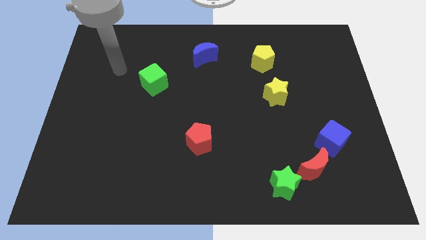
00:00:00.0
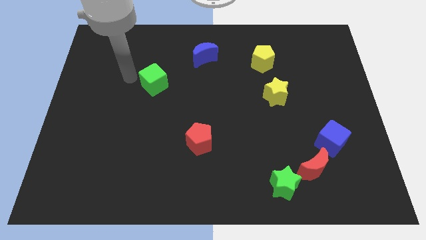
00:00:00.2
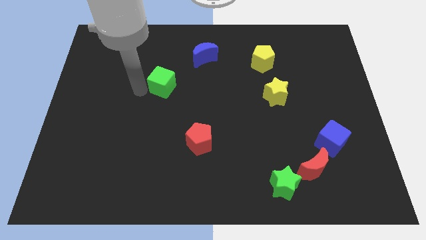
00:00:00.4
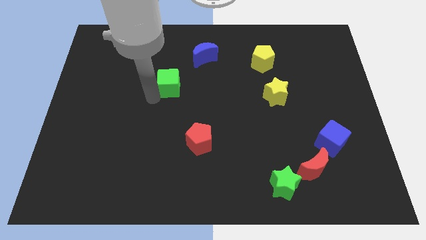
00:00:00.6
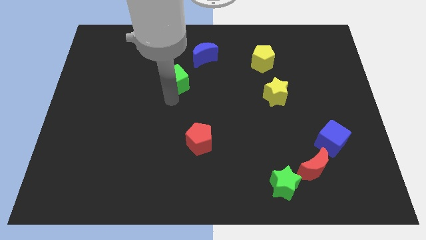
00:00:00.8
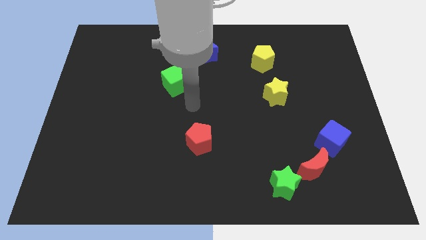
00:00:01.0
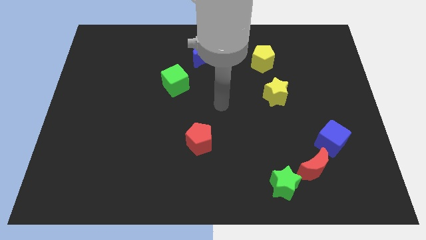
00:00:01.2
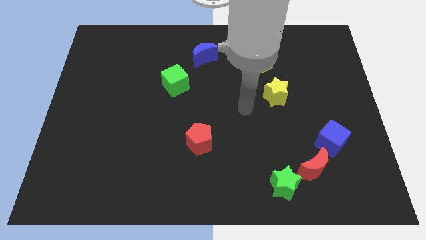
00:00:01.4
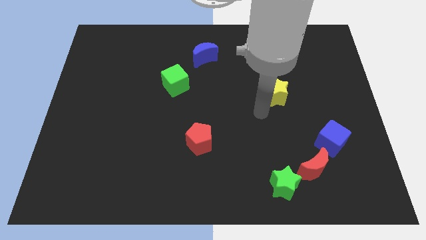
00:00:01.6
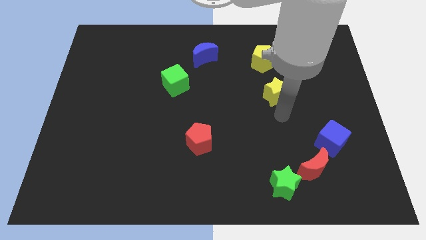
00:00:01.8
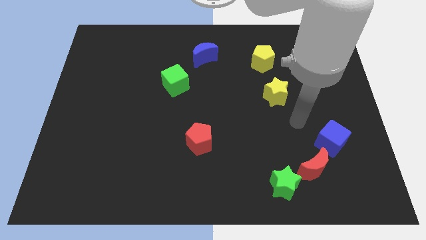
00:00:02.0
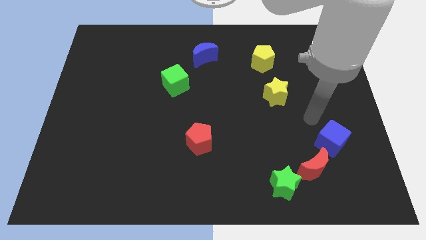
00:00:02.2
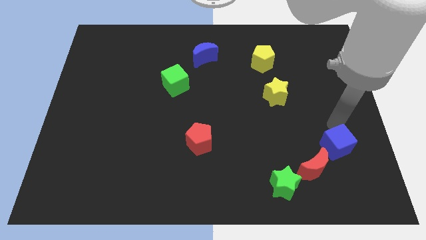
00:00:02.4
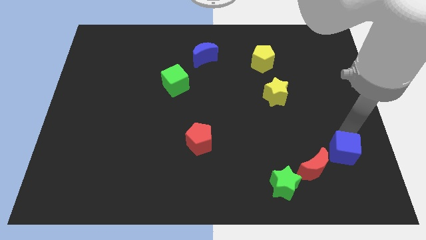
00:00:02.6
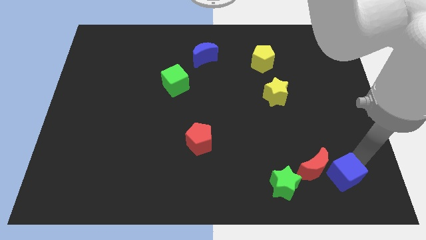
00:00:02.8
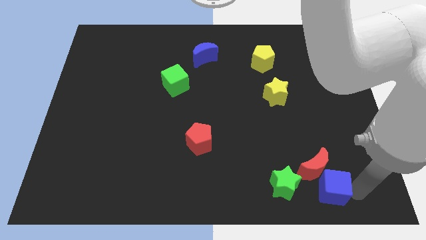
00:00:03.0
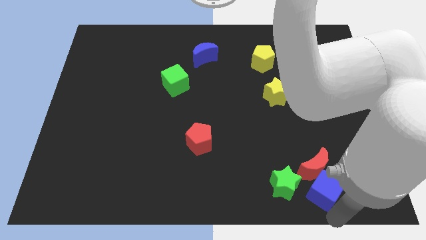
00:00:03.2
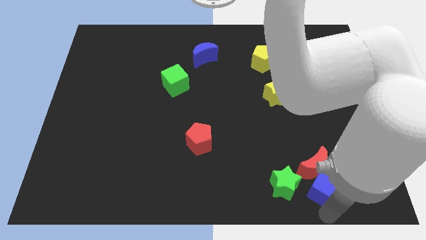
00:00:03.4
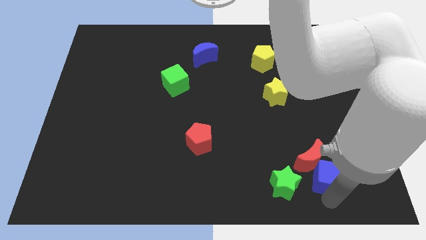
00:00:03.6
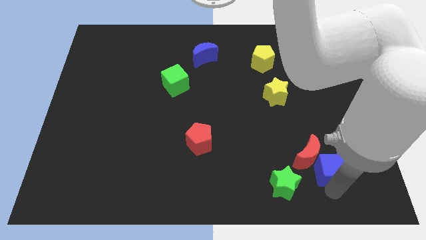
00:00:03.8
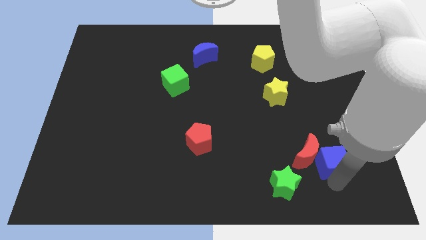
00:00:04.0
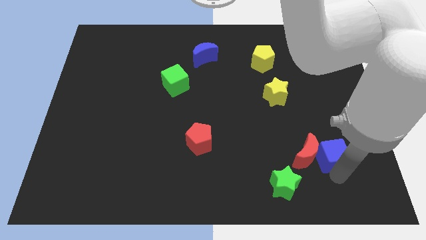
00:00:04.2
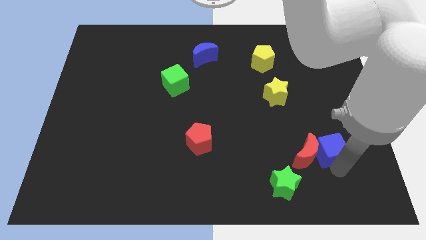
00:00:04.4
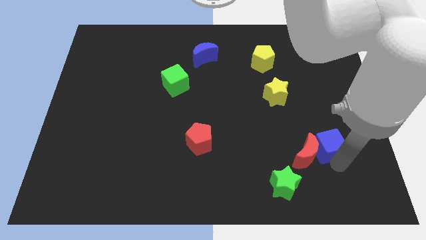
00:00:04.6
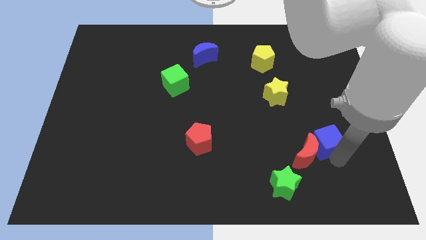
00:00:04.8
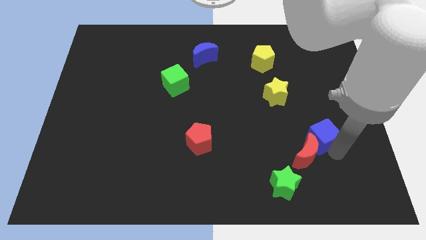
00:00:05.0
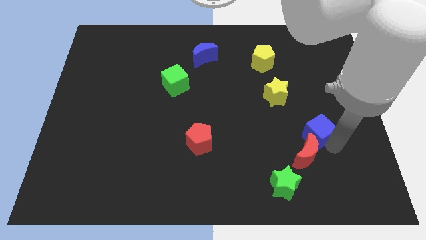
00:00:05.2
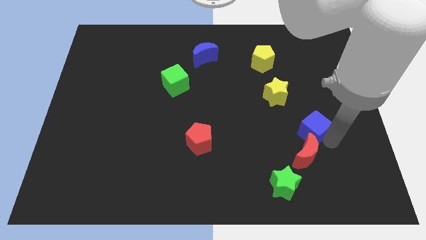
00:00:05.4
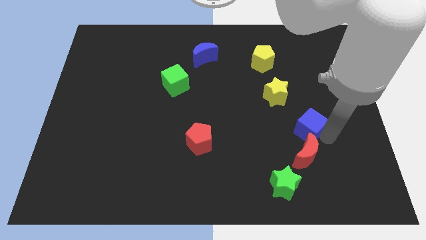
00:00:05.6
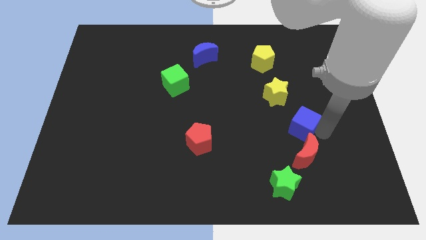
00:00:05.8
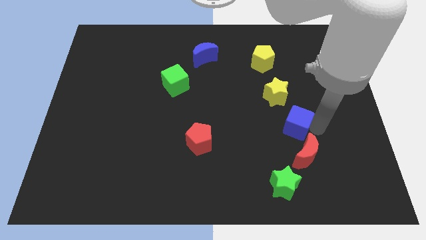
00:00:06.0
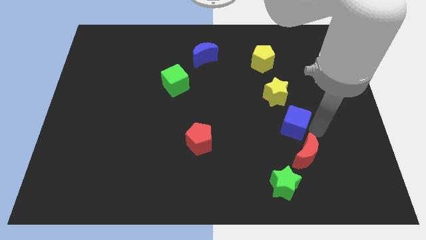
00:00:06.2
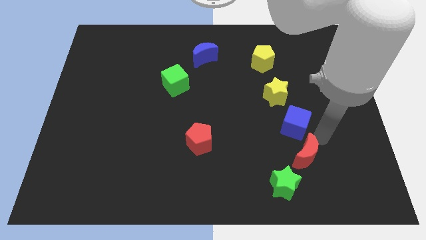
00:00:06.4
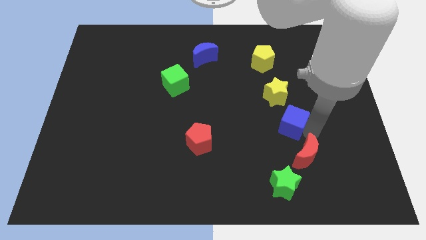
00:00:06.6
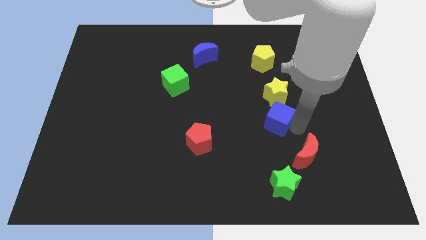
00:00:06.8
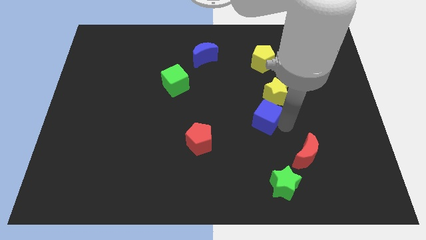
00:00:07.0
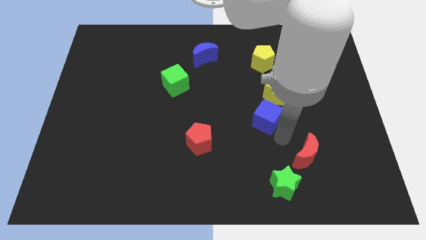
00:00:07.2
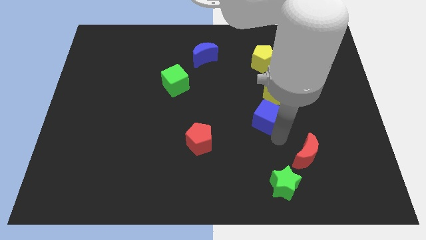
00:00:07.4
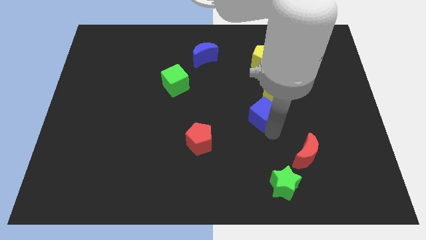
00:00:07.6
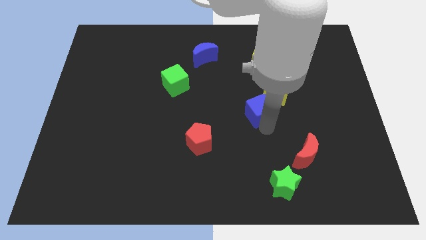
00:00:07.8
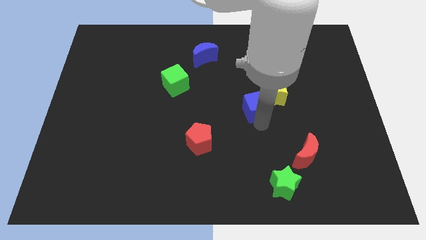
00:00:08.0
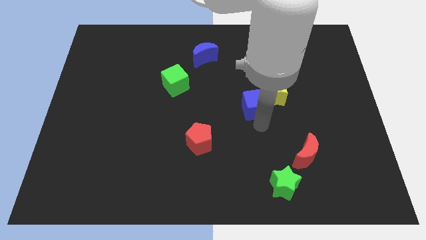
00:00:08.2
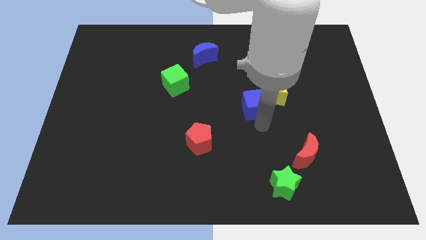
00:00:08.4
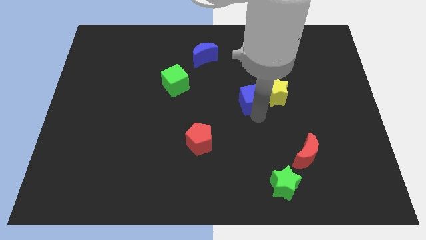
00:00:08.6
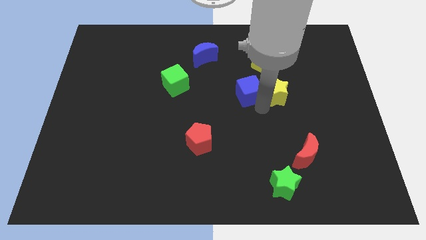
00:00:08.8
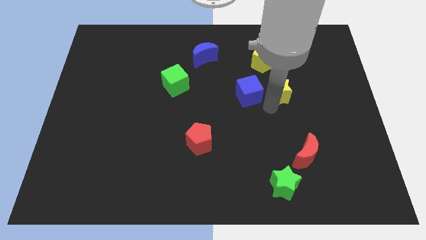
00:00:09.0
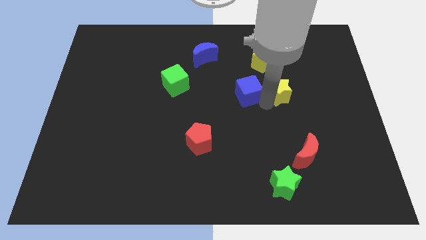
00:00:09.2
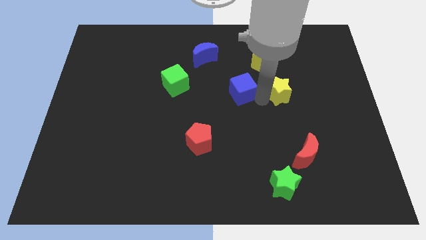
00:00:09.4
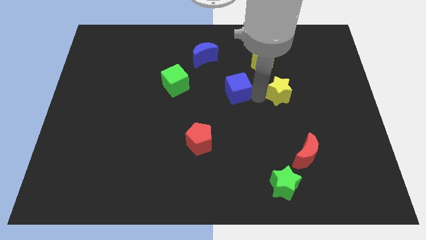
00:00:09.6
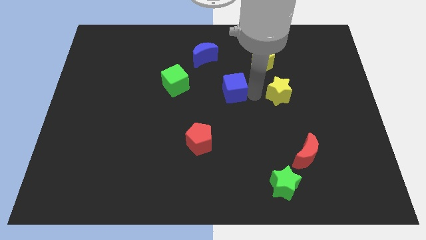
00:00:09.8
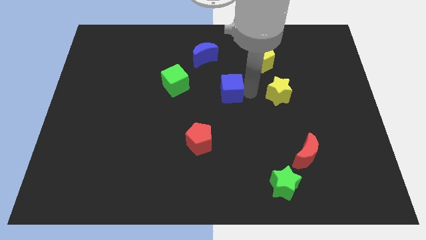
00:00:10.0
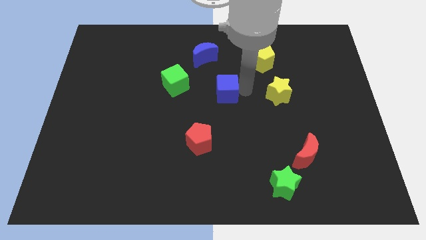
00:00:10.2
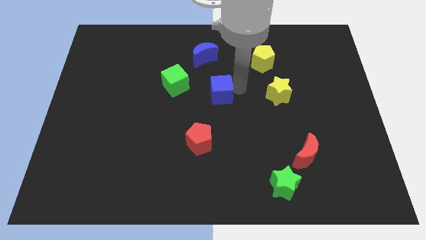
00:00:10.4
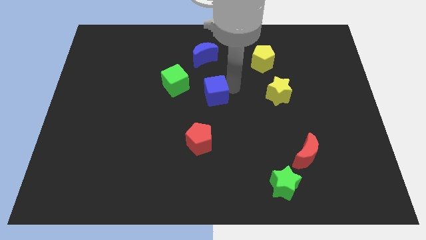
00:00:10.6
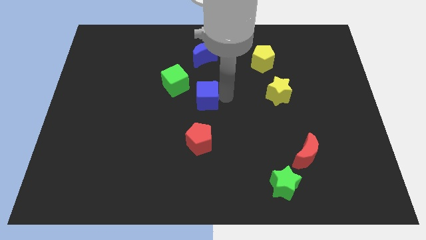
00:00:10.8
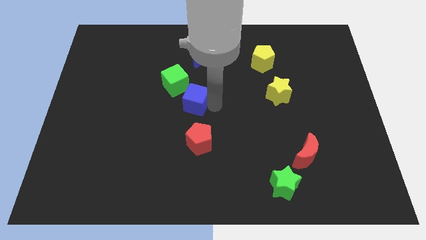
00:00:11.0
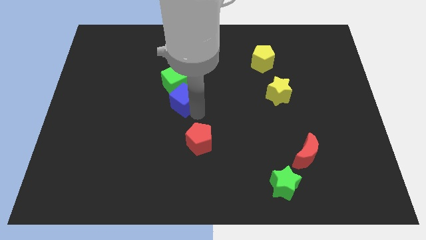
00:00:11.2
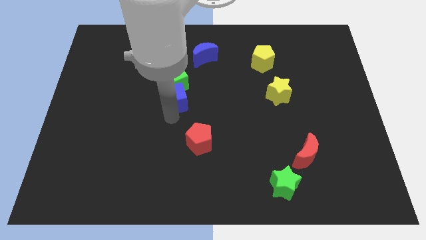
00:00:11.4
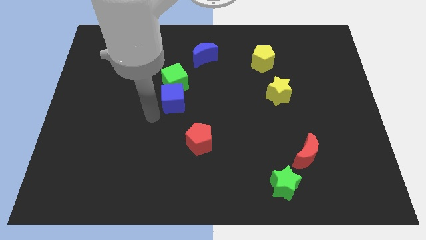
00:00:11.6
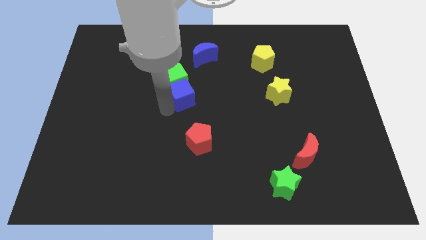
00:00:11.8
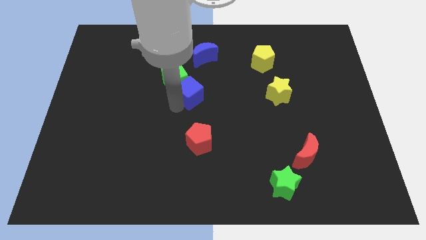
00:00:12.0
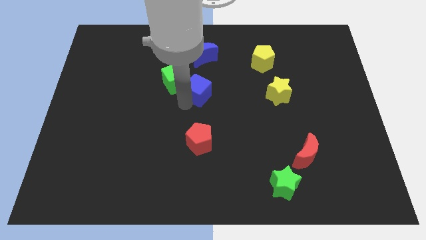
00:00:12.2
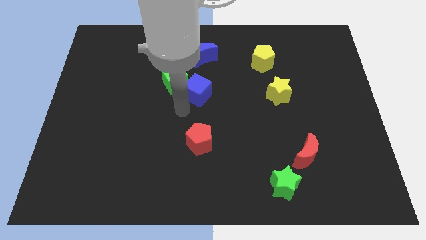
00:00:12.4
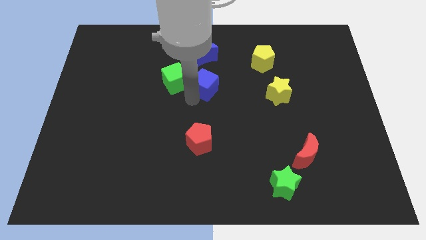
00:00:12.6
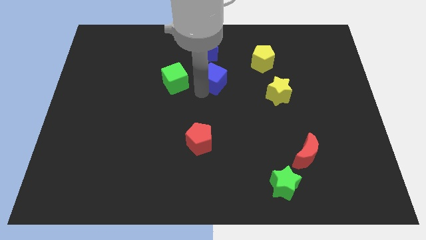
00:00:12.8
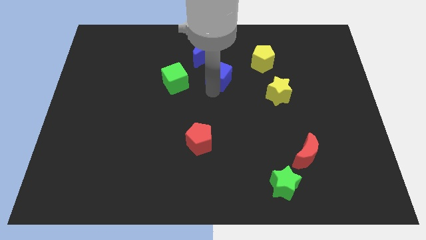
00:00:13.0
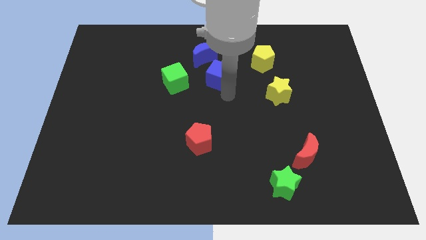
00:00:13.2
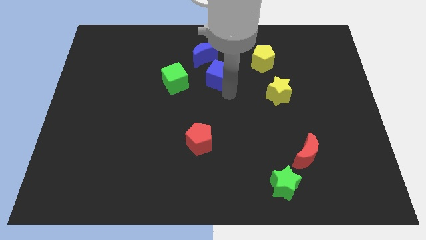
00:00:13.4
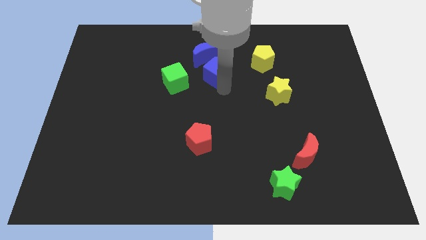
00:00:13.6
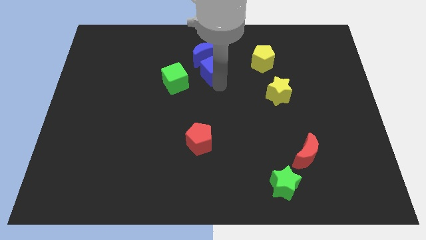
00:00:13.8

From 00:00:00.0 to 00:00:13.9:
move the blue cube towards the blue moon

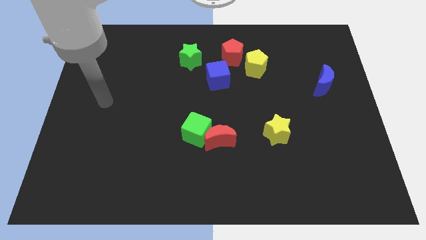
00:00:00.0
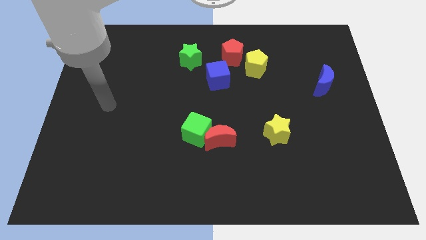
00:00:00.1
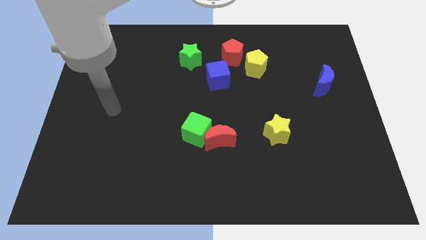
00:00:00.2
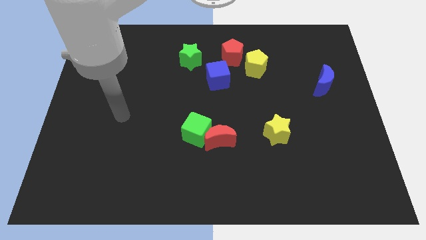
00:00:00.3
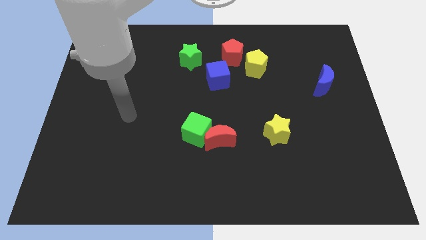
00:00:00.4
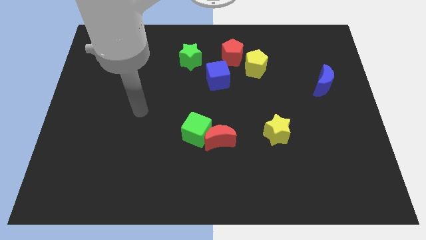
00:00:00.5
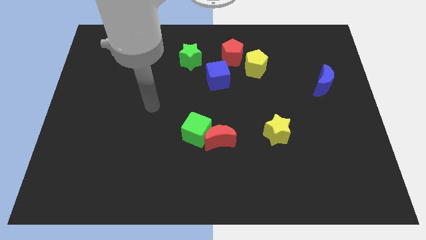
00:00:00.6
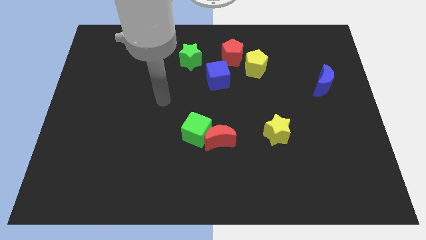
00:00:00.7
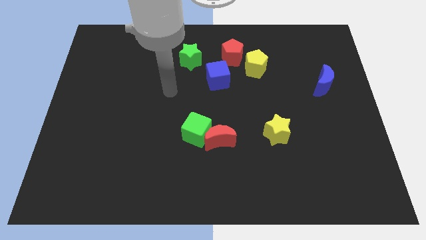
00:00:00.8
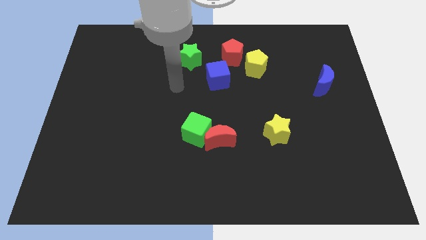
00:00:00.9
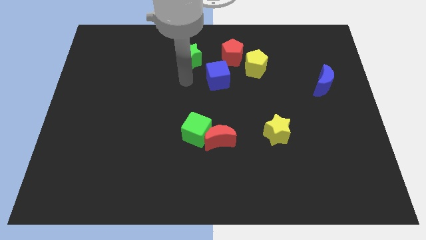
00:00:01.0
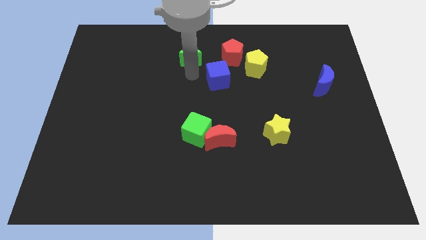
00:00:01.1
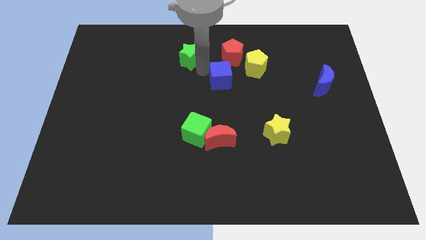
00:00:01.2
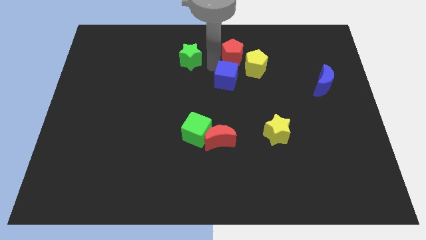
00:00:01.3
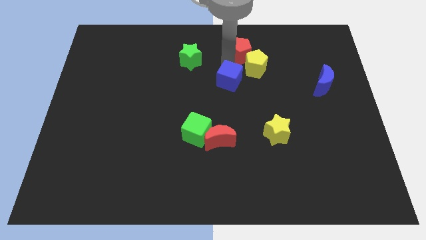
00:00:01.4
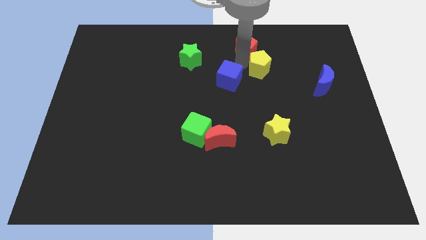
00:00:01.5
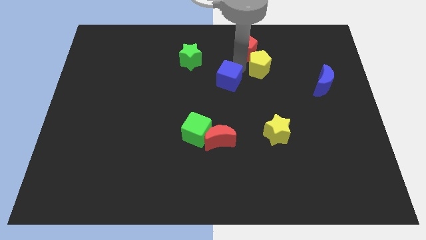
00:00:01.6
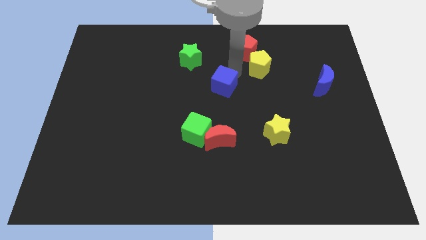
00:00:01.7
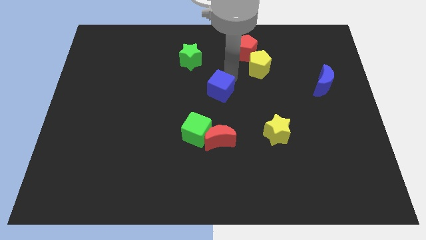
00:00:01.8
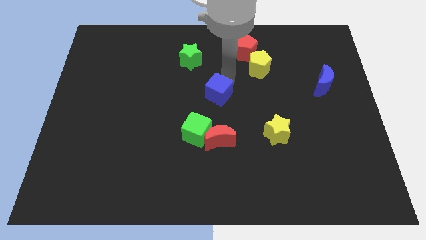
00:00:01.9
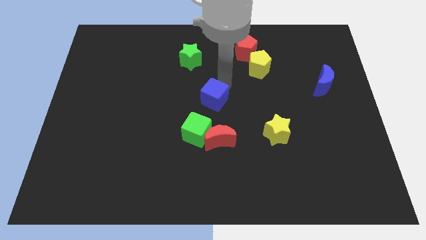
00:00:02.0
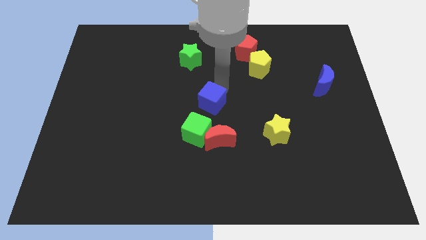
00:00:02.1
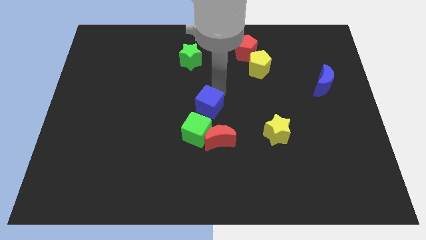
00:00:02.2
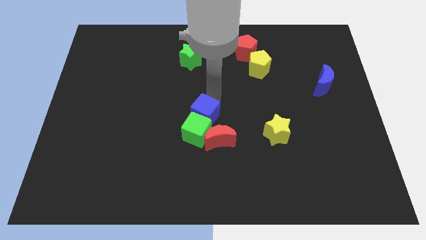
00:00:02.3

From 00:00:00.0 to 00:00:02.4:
slide the blue cube towards the green cube
